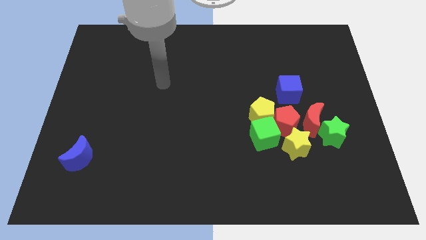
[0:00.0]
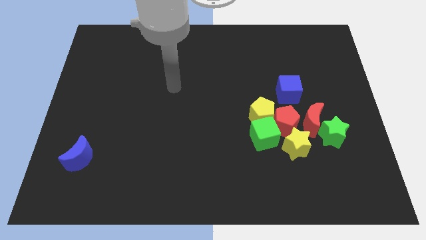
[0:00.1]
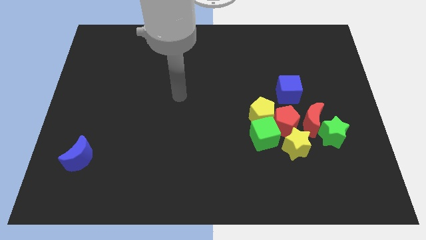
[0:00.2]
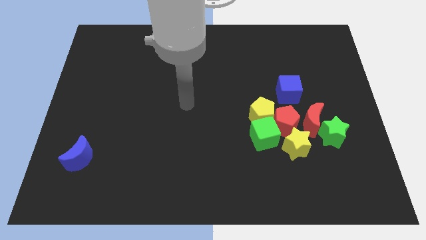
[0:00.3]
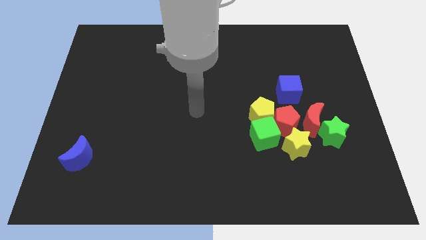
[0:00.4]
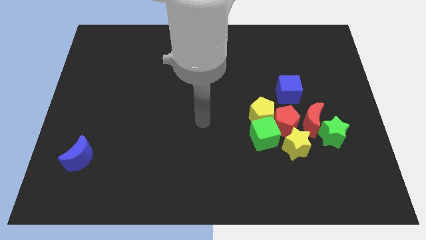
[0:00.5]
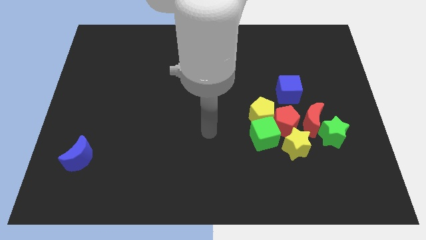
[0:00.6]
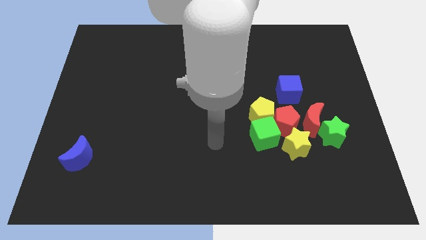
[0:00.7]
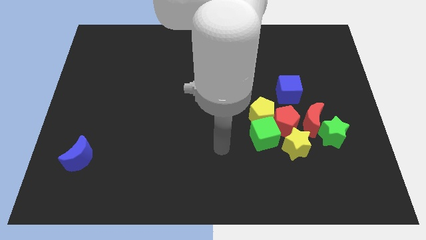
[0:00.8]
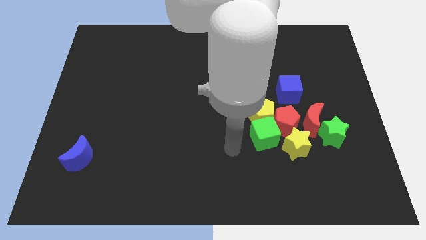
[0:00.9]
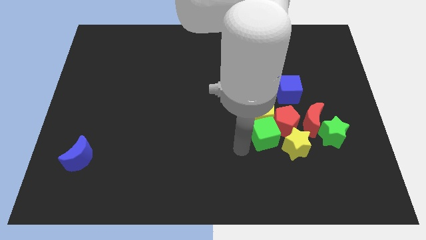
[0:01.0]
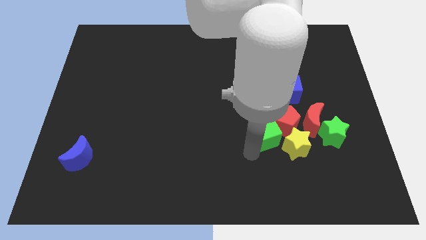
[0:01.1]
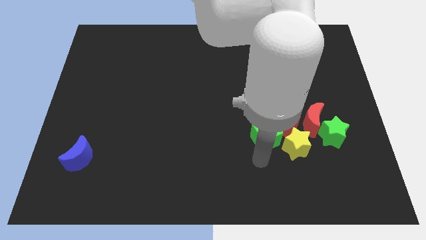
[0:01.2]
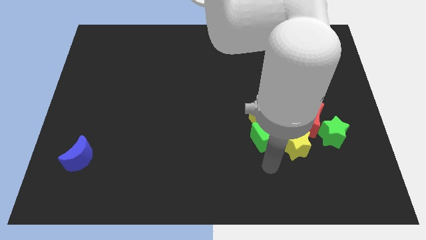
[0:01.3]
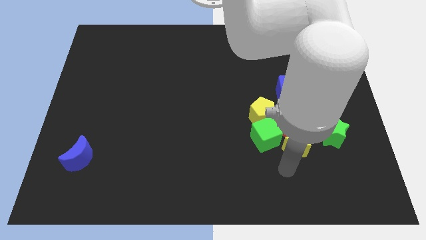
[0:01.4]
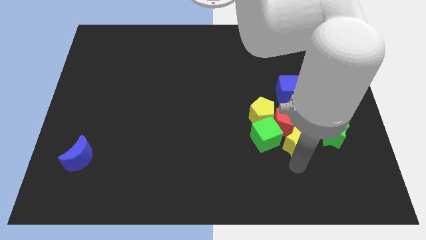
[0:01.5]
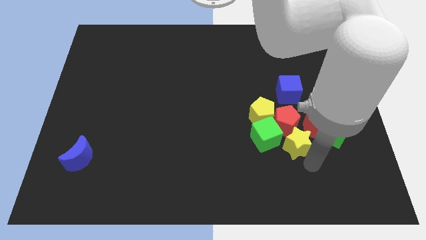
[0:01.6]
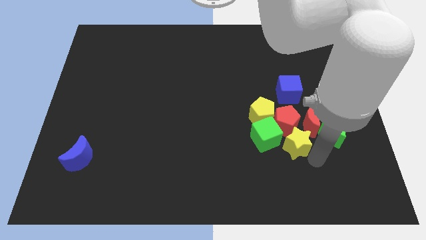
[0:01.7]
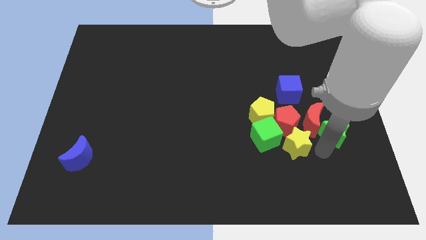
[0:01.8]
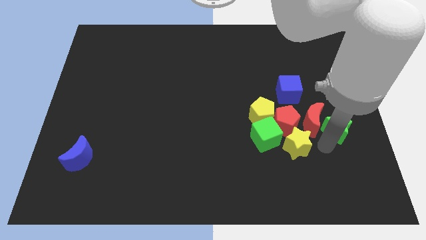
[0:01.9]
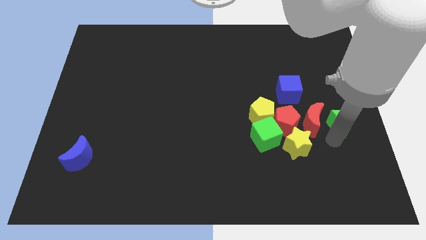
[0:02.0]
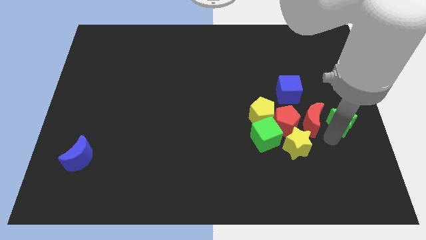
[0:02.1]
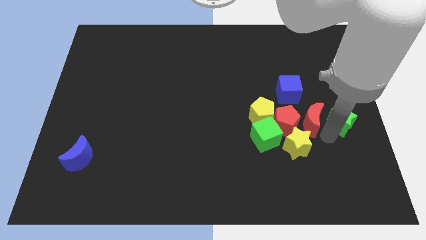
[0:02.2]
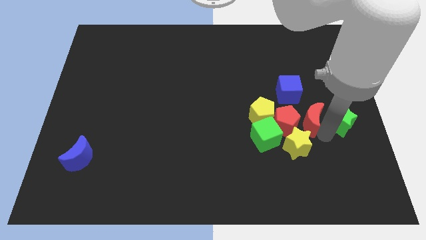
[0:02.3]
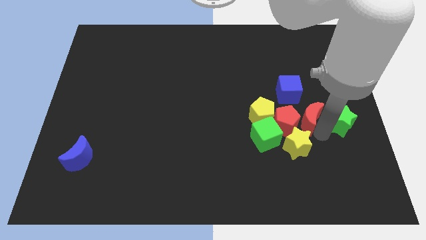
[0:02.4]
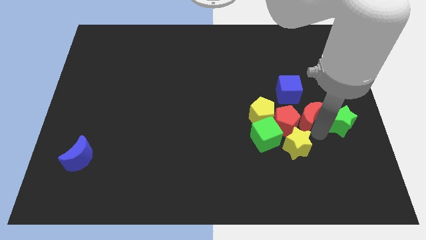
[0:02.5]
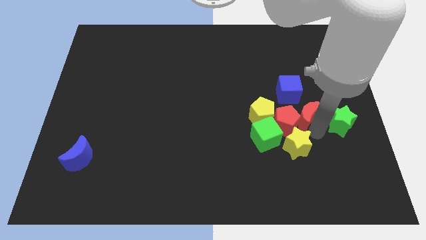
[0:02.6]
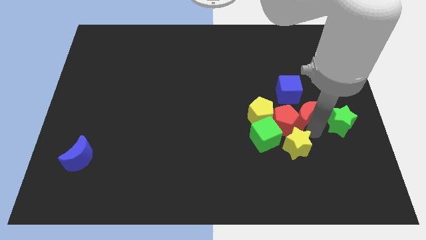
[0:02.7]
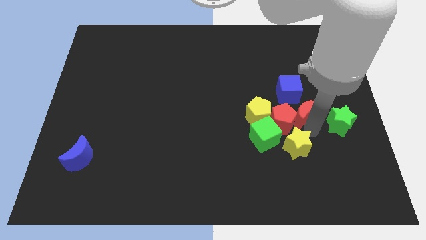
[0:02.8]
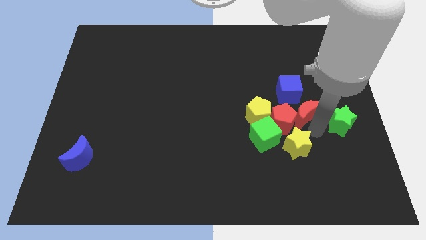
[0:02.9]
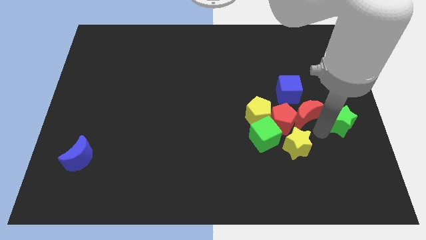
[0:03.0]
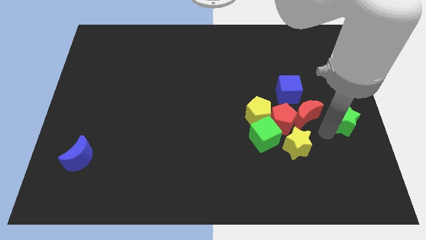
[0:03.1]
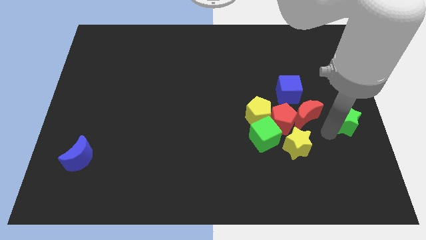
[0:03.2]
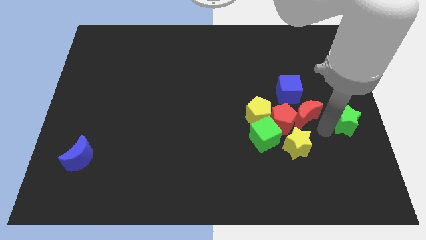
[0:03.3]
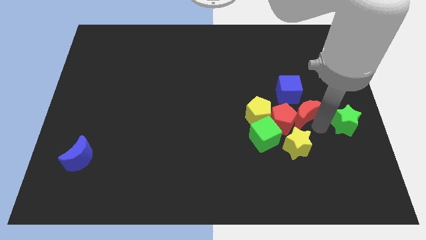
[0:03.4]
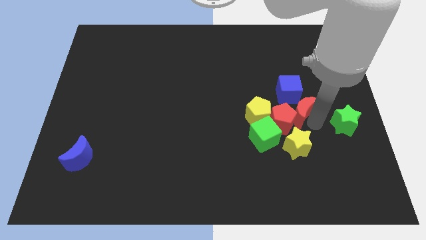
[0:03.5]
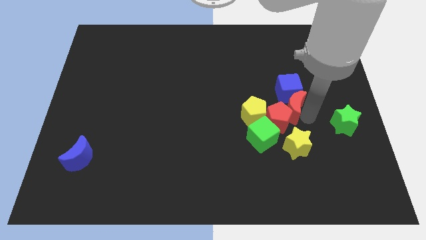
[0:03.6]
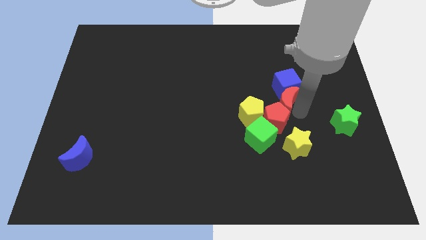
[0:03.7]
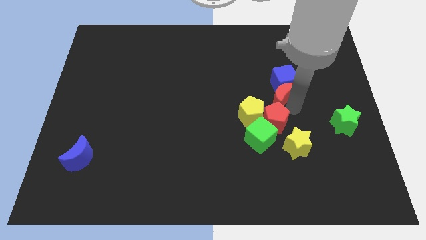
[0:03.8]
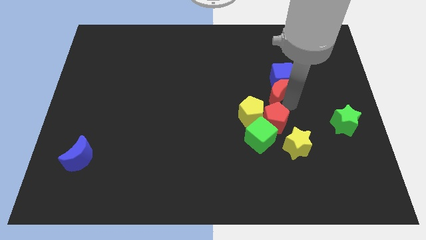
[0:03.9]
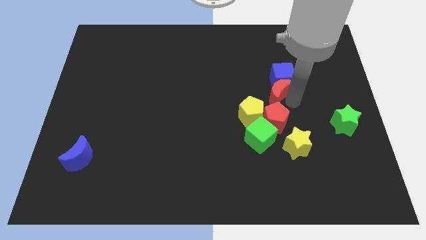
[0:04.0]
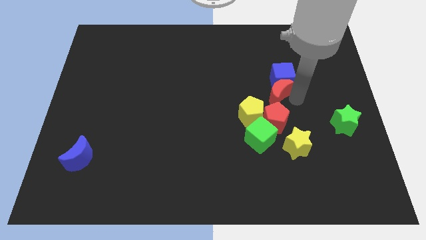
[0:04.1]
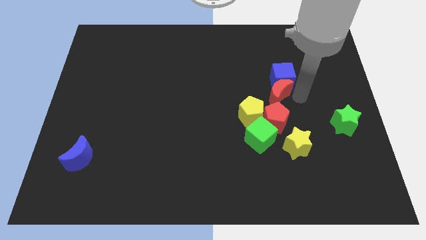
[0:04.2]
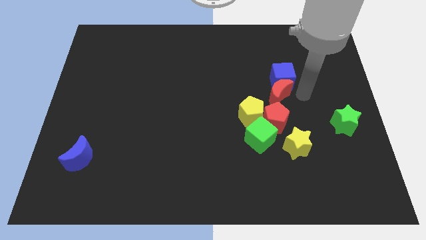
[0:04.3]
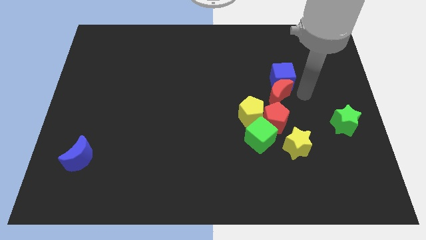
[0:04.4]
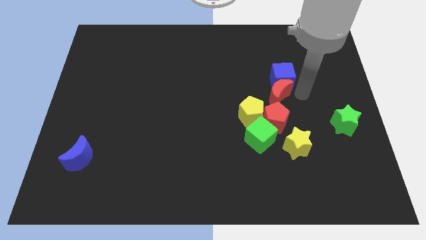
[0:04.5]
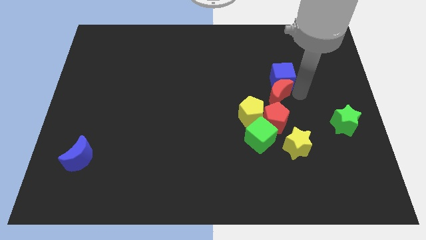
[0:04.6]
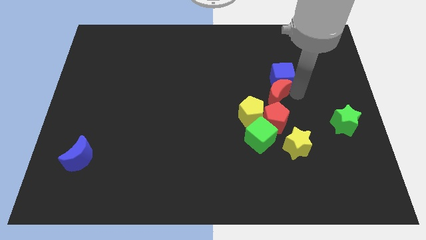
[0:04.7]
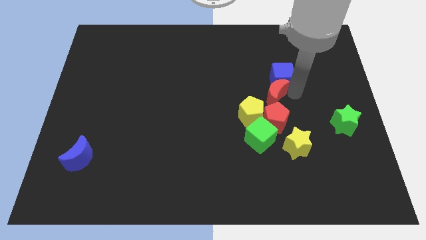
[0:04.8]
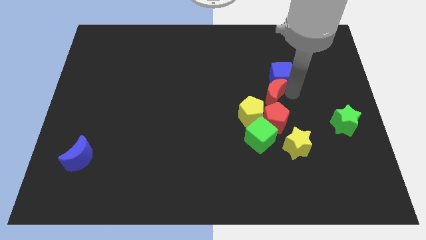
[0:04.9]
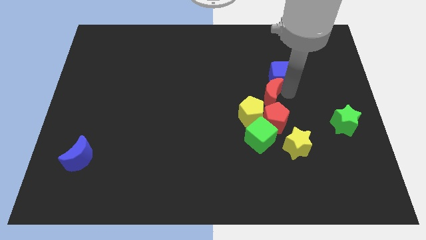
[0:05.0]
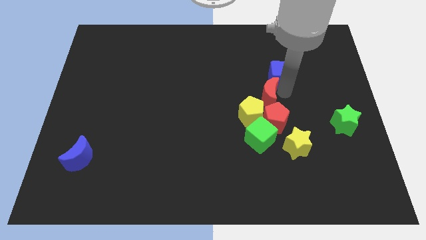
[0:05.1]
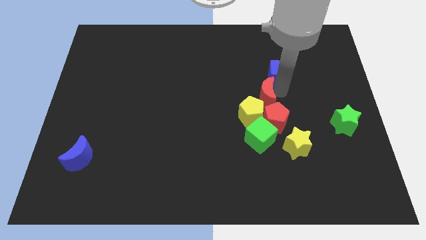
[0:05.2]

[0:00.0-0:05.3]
slide the red moon to the center of the board

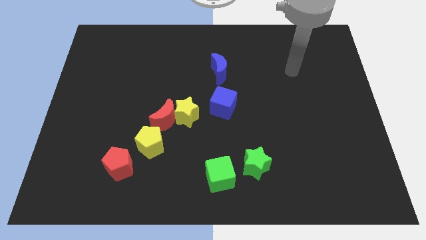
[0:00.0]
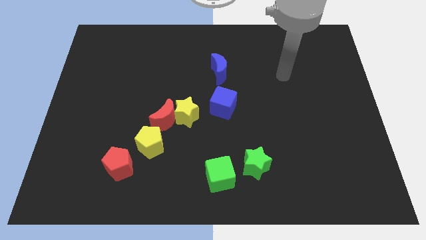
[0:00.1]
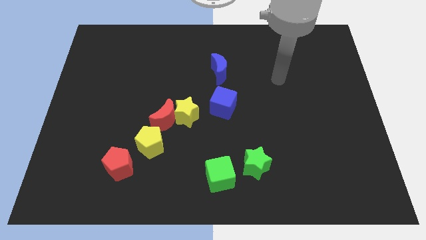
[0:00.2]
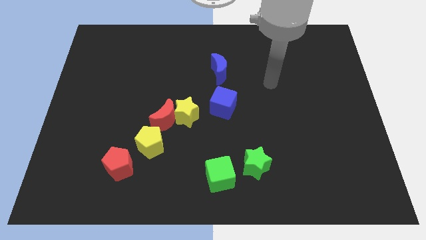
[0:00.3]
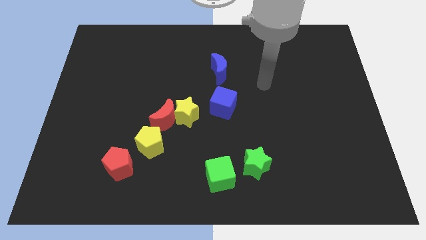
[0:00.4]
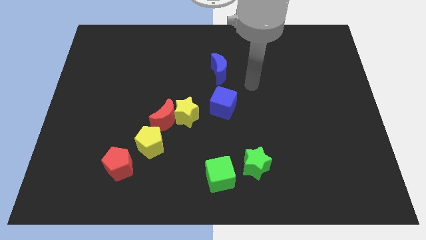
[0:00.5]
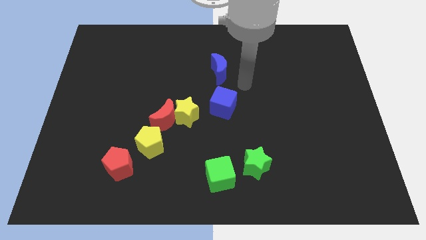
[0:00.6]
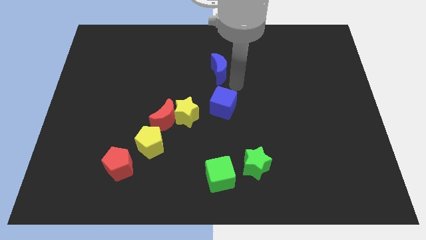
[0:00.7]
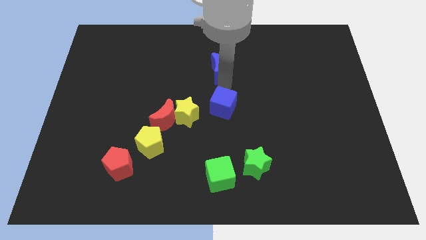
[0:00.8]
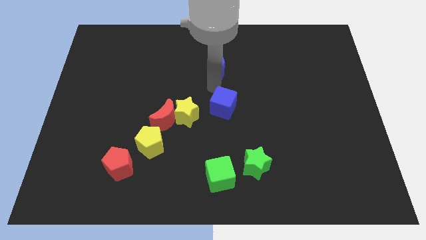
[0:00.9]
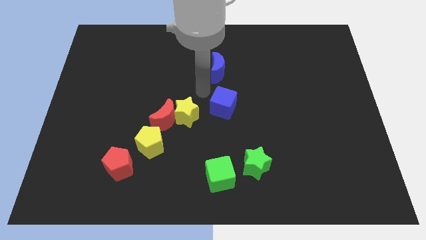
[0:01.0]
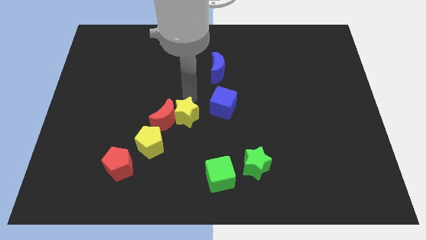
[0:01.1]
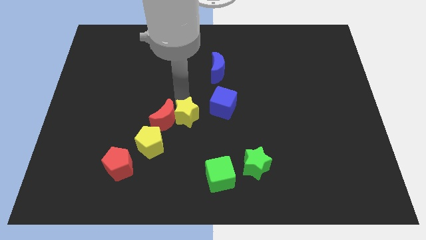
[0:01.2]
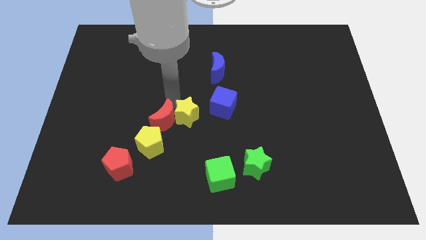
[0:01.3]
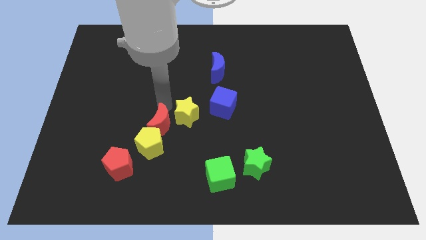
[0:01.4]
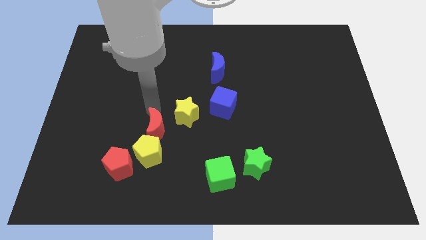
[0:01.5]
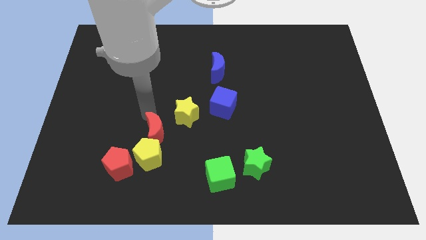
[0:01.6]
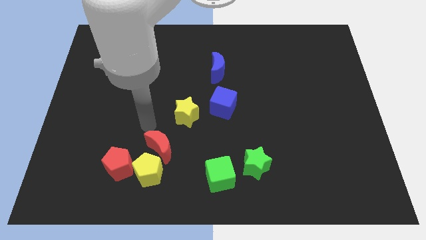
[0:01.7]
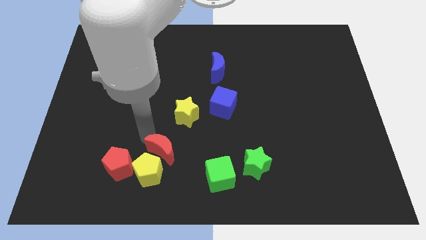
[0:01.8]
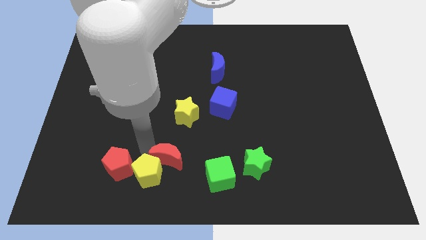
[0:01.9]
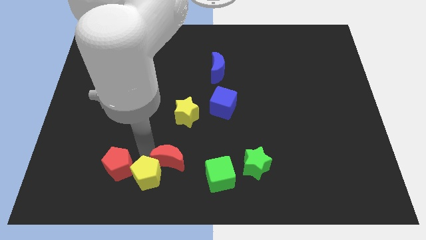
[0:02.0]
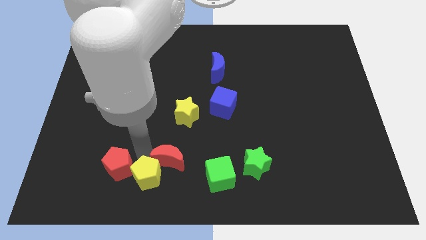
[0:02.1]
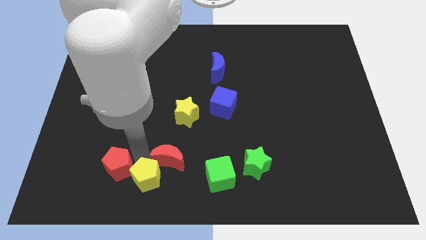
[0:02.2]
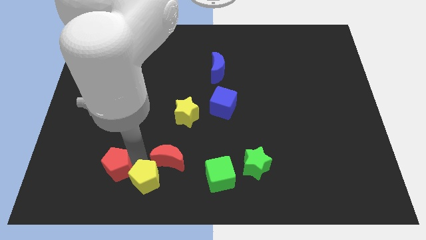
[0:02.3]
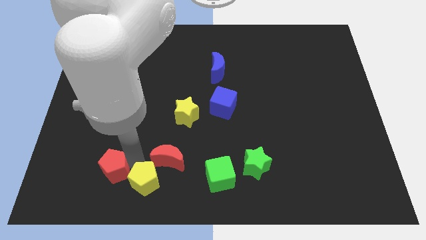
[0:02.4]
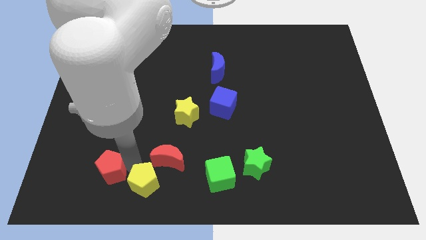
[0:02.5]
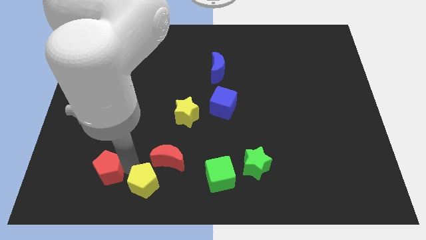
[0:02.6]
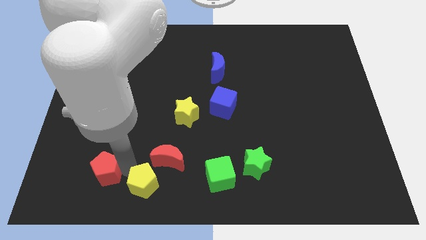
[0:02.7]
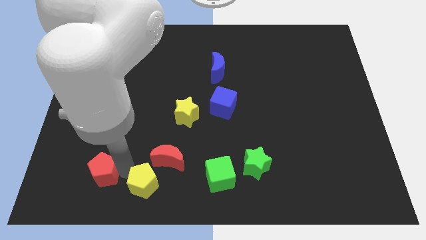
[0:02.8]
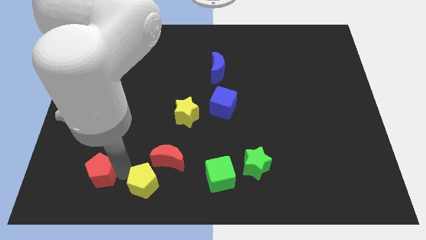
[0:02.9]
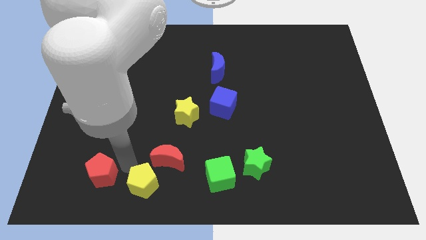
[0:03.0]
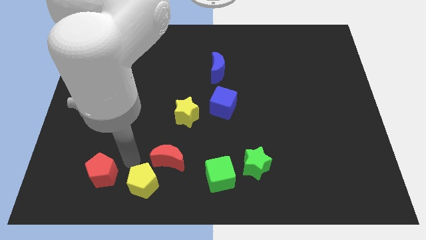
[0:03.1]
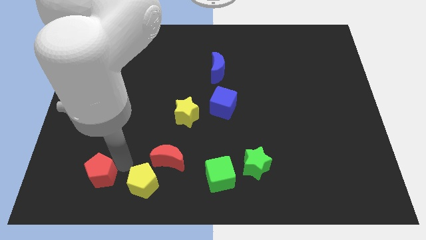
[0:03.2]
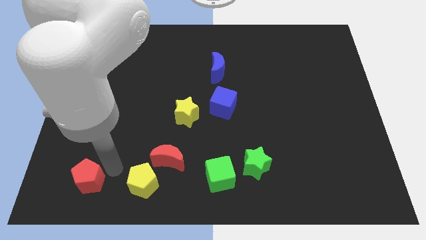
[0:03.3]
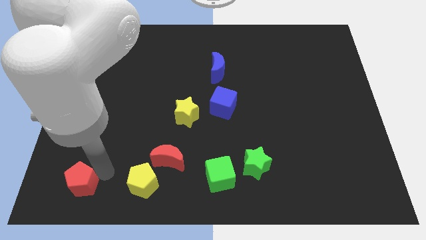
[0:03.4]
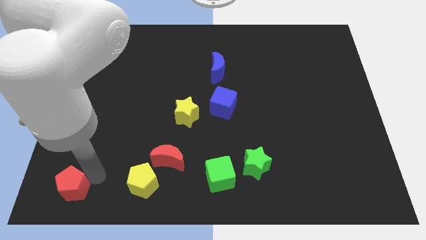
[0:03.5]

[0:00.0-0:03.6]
slide the red pentagon to the bottom left
